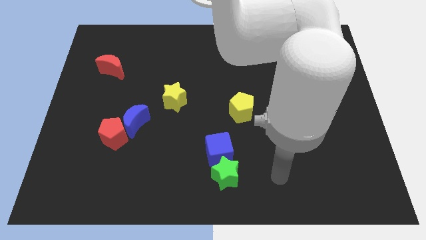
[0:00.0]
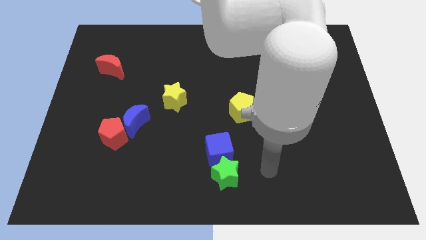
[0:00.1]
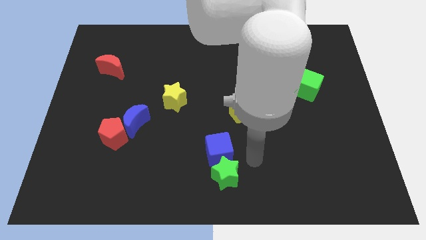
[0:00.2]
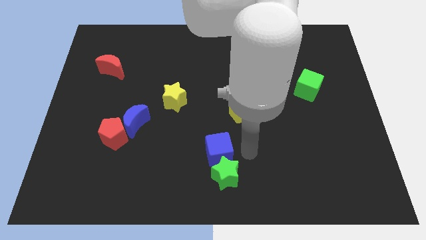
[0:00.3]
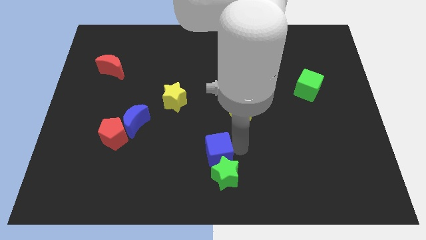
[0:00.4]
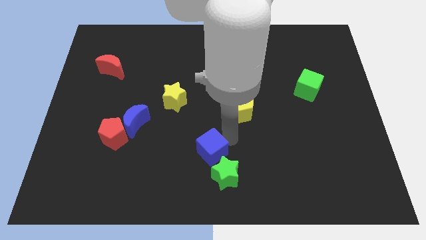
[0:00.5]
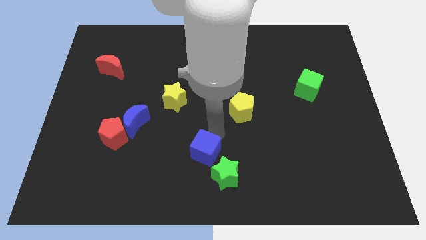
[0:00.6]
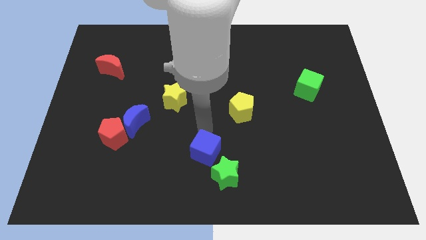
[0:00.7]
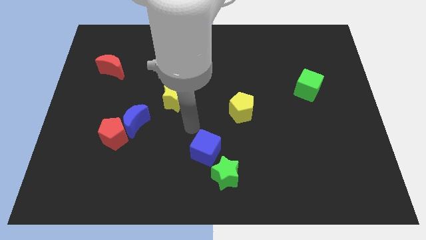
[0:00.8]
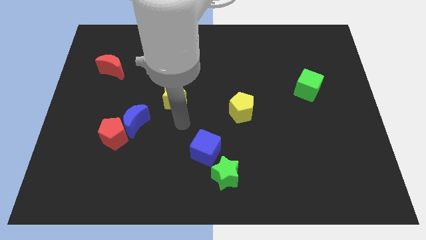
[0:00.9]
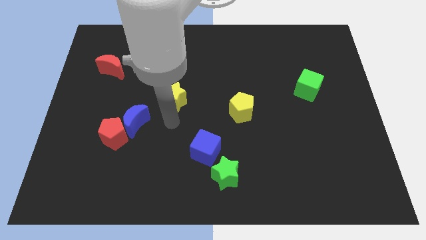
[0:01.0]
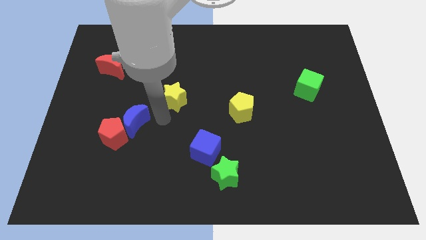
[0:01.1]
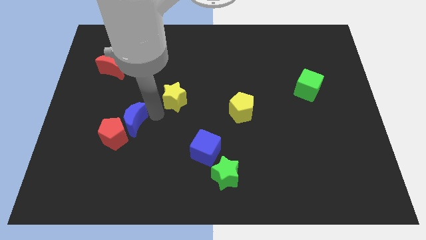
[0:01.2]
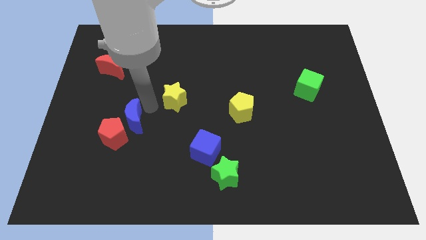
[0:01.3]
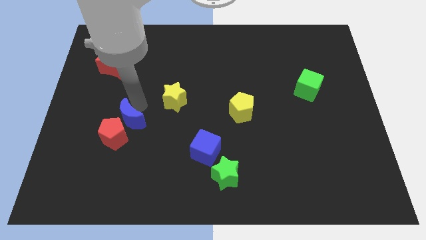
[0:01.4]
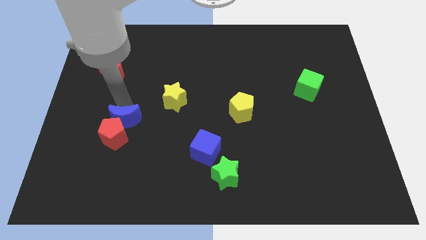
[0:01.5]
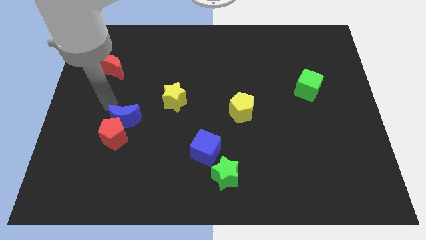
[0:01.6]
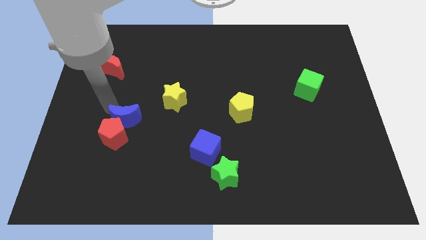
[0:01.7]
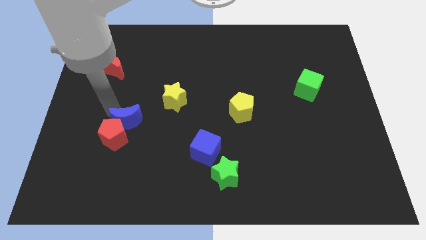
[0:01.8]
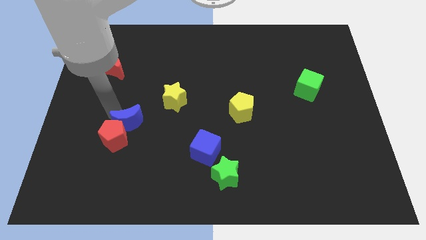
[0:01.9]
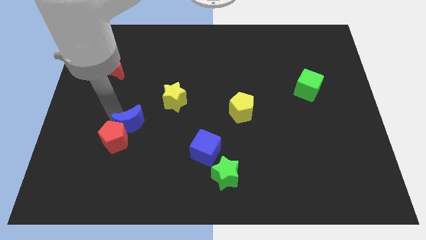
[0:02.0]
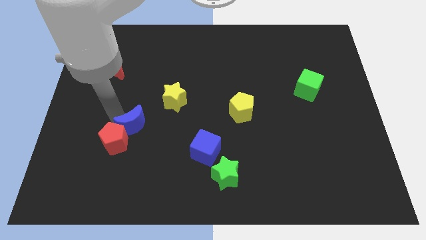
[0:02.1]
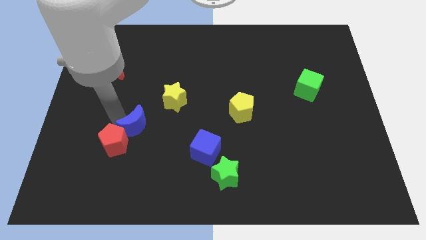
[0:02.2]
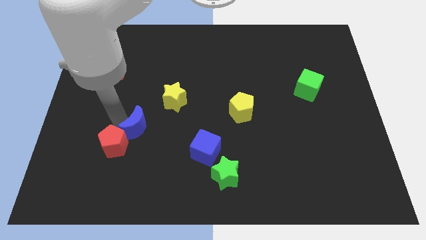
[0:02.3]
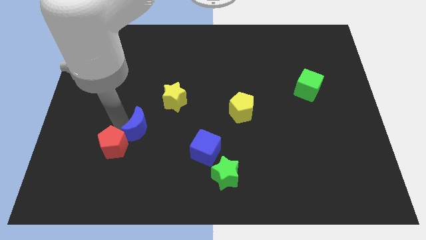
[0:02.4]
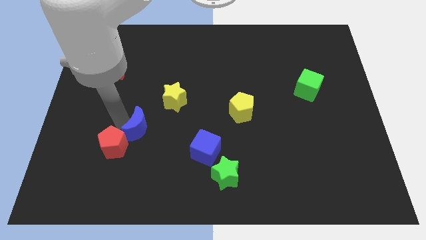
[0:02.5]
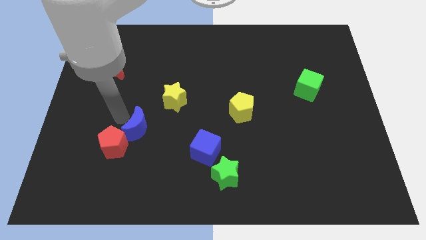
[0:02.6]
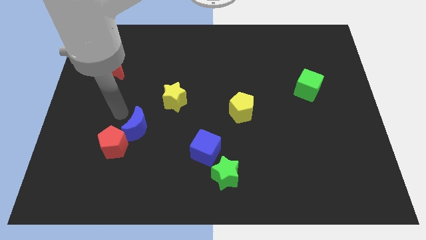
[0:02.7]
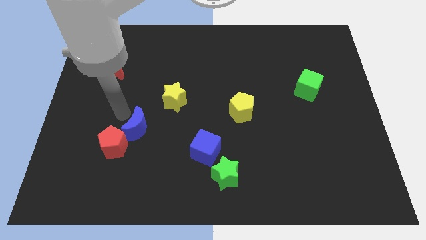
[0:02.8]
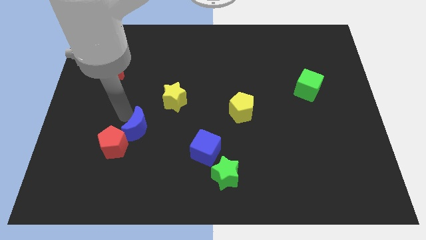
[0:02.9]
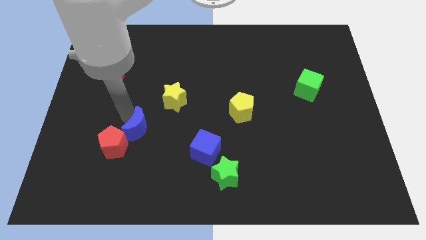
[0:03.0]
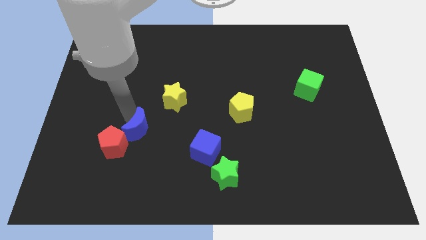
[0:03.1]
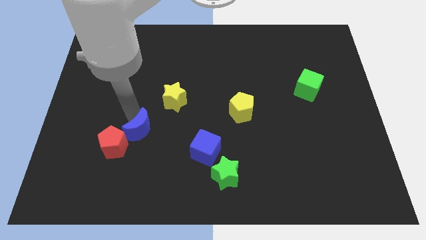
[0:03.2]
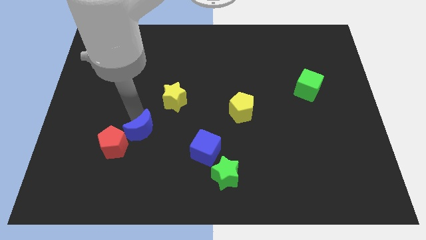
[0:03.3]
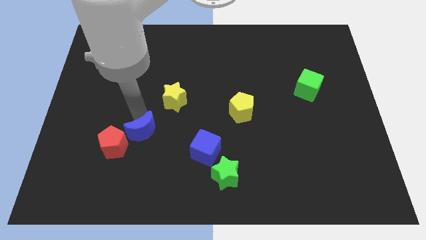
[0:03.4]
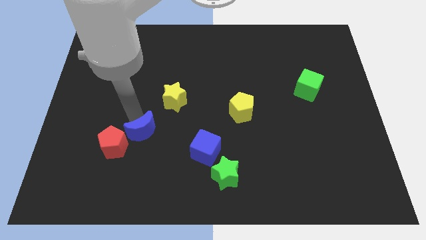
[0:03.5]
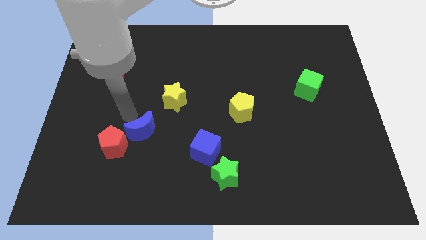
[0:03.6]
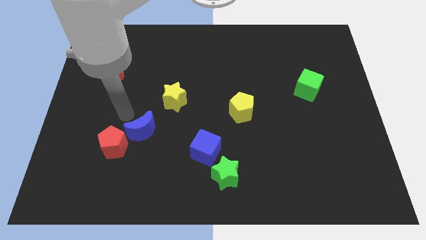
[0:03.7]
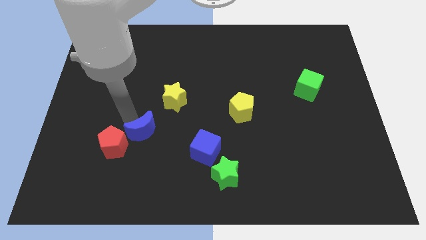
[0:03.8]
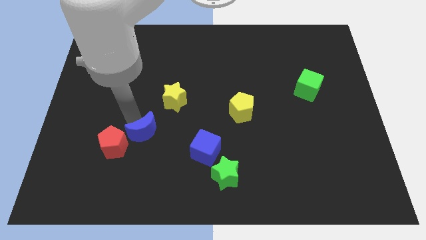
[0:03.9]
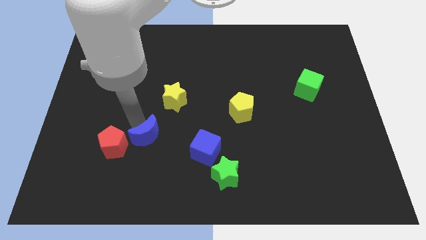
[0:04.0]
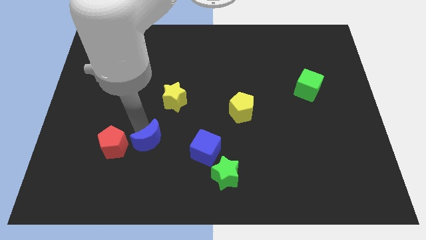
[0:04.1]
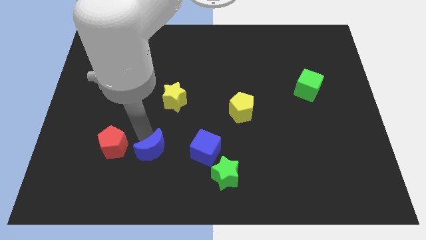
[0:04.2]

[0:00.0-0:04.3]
push the blue moon diagonally down and to the right slightly

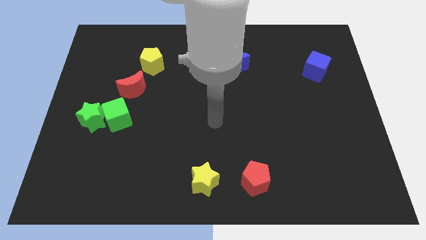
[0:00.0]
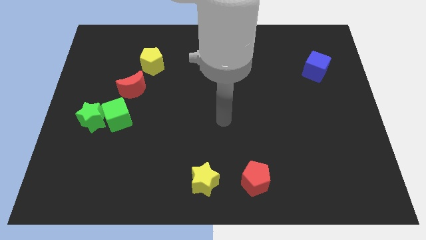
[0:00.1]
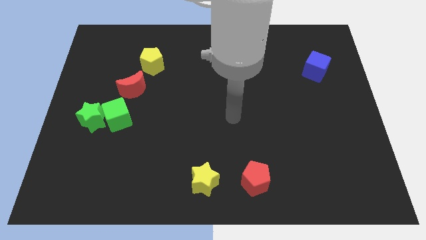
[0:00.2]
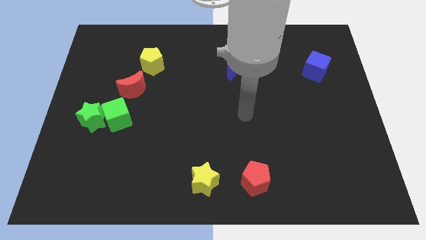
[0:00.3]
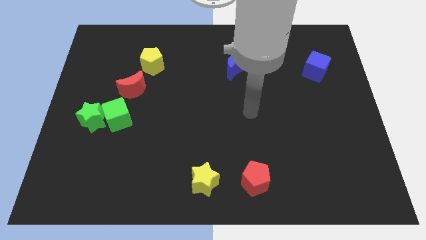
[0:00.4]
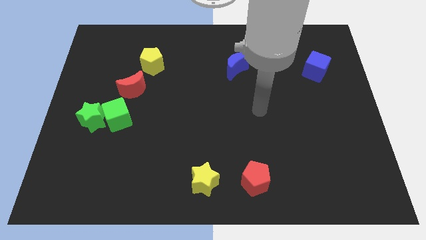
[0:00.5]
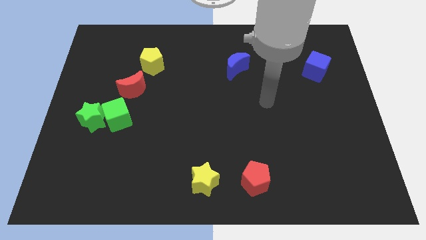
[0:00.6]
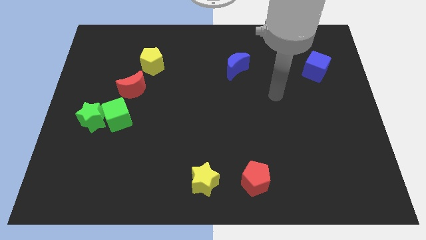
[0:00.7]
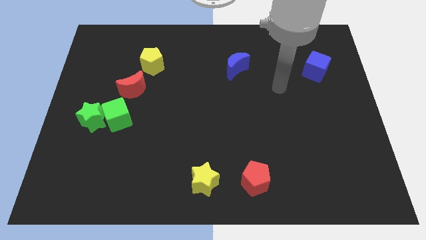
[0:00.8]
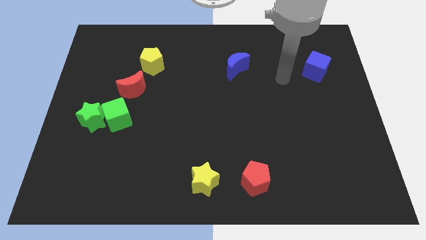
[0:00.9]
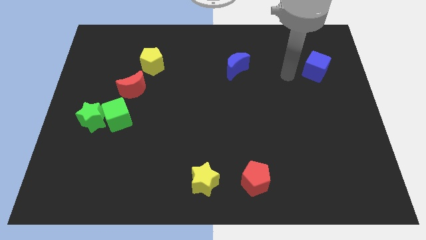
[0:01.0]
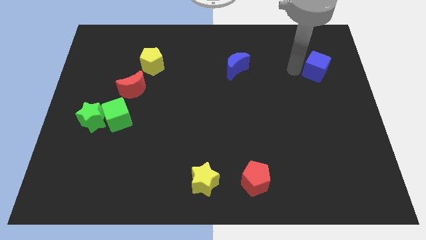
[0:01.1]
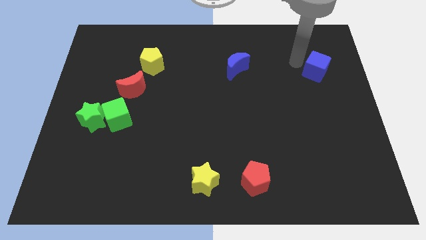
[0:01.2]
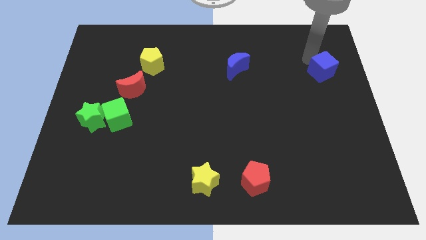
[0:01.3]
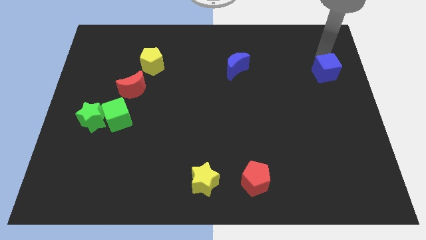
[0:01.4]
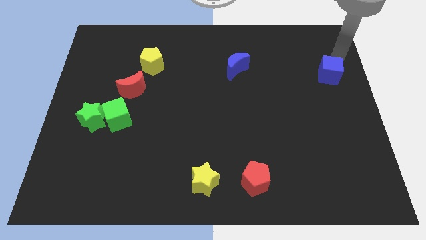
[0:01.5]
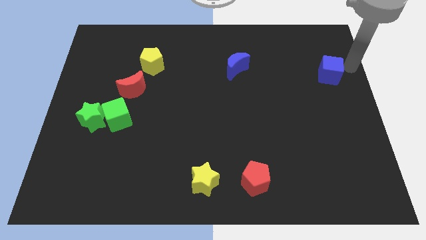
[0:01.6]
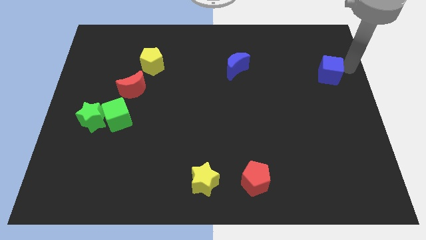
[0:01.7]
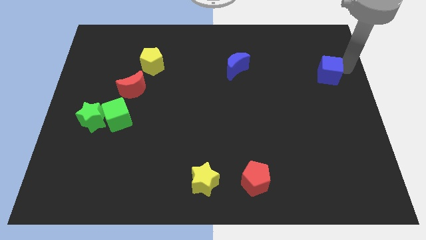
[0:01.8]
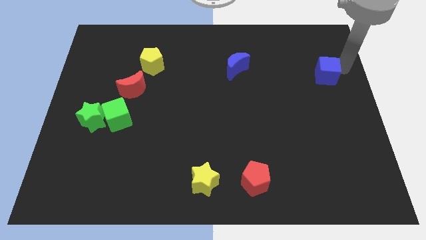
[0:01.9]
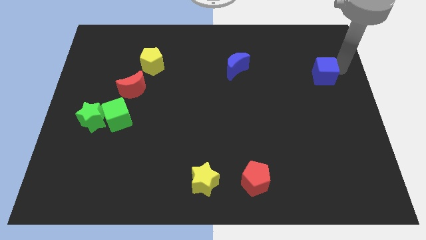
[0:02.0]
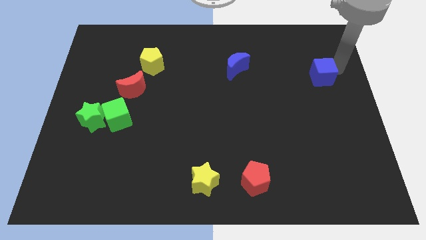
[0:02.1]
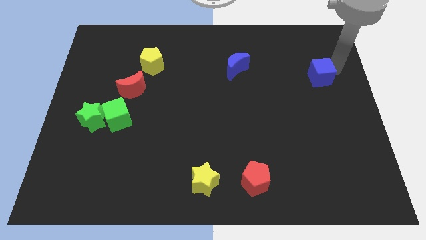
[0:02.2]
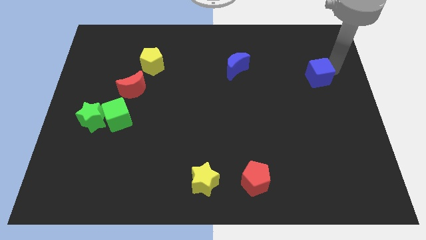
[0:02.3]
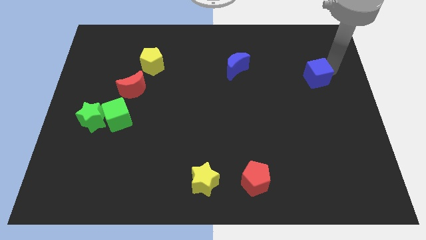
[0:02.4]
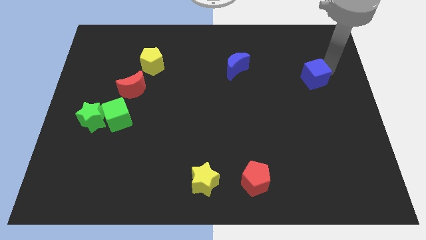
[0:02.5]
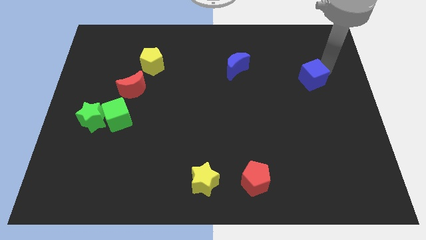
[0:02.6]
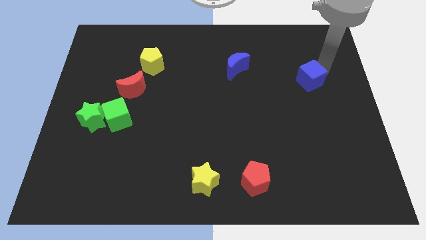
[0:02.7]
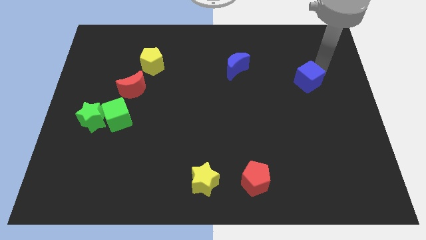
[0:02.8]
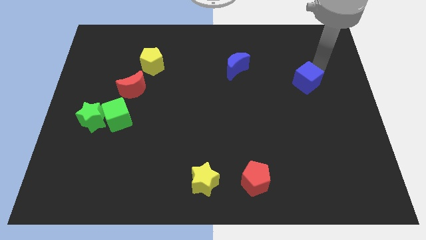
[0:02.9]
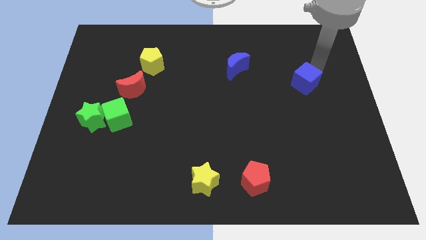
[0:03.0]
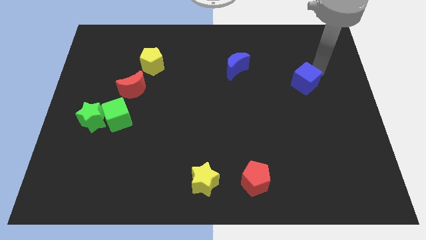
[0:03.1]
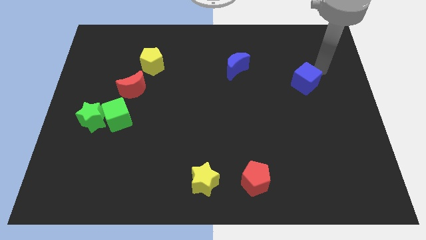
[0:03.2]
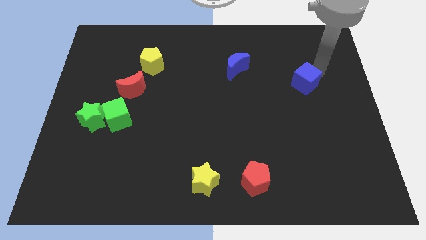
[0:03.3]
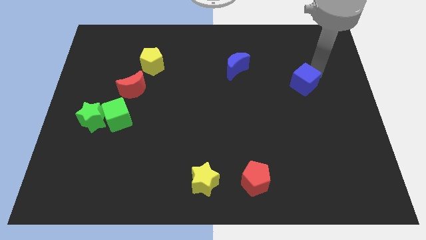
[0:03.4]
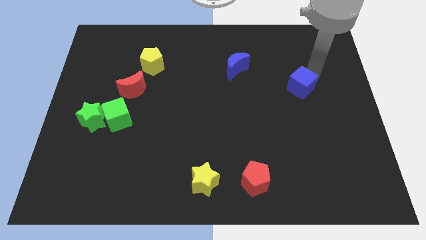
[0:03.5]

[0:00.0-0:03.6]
move the blue cube slightly downwards and then to the left
